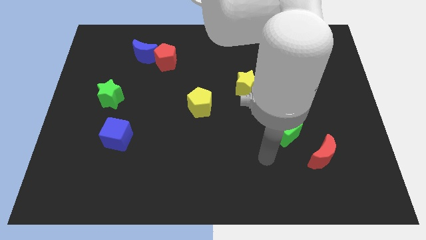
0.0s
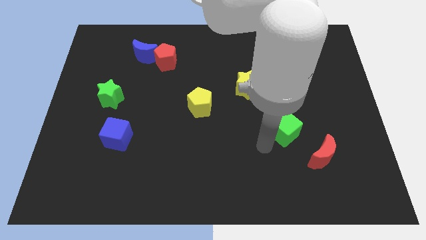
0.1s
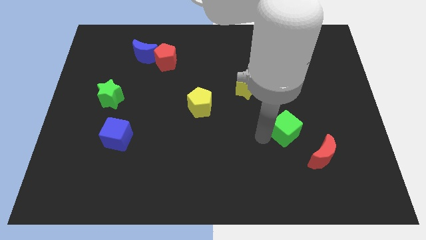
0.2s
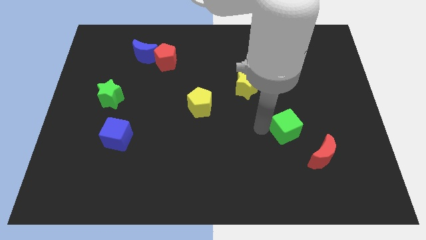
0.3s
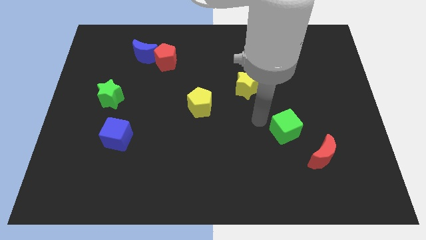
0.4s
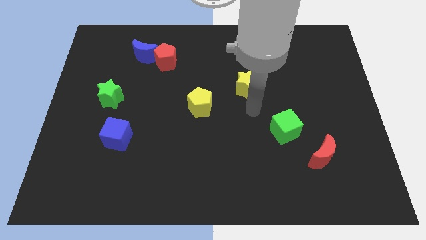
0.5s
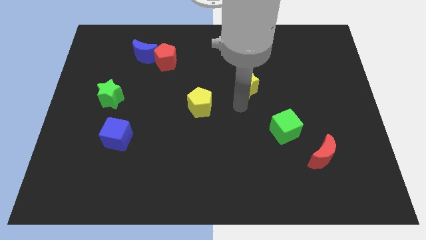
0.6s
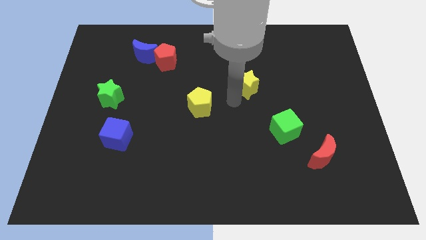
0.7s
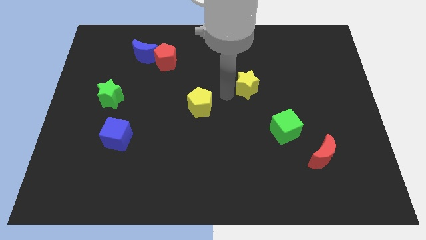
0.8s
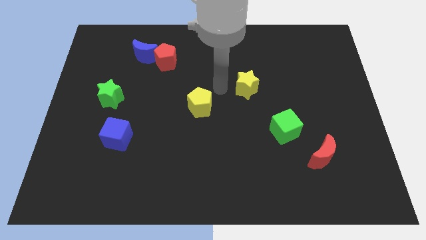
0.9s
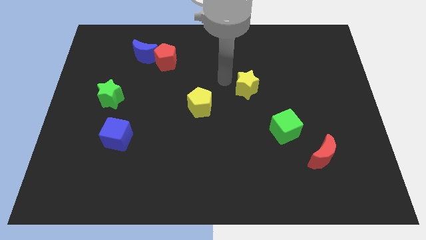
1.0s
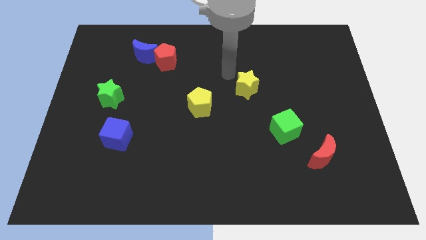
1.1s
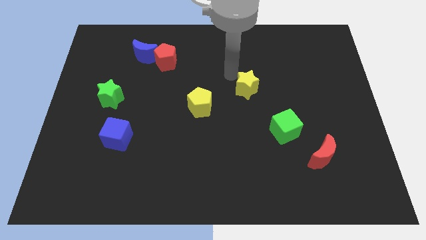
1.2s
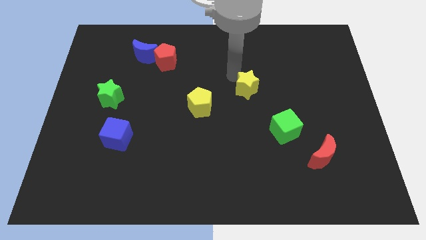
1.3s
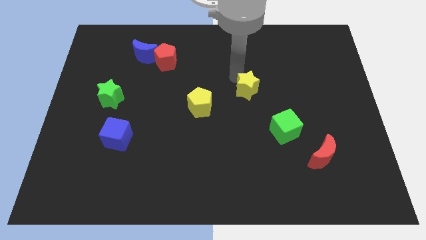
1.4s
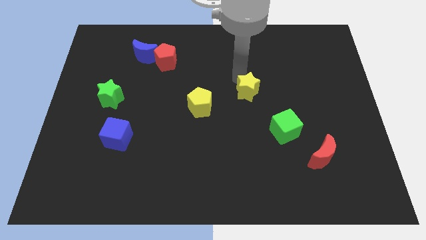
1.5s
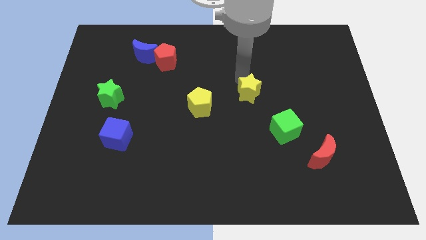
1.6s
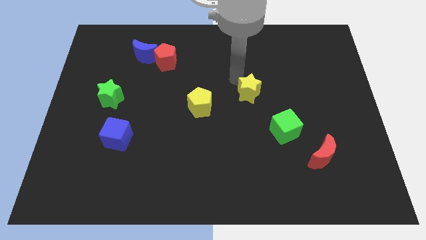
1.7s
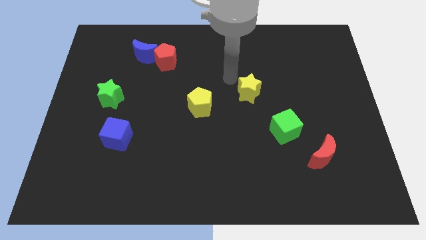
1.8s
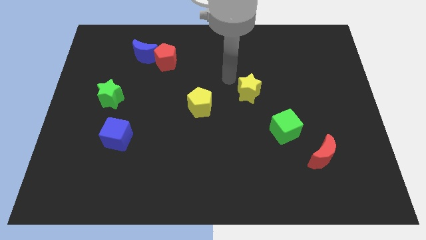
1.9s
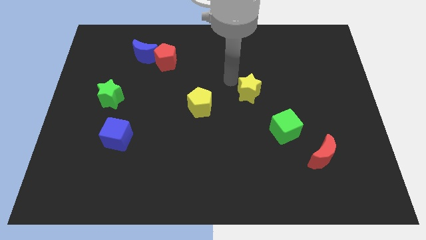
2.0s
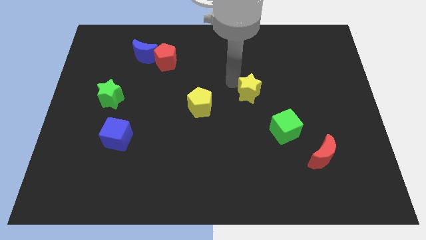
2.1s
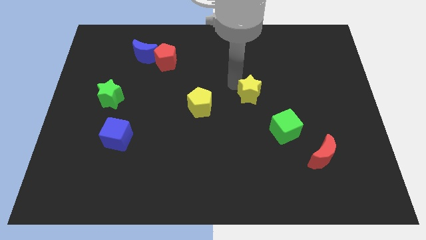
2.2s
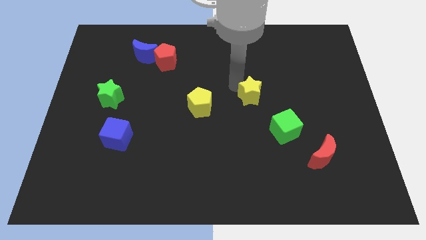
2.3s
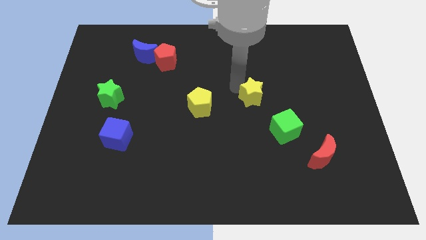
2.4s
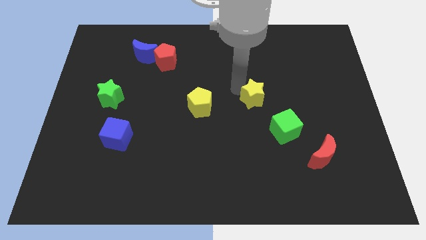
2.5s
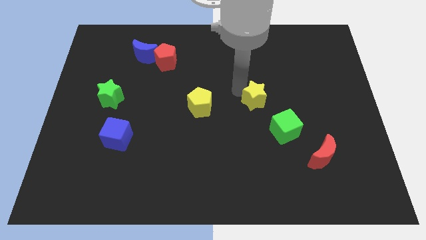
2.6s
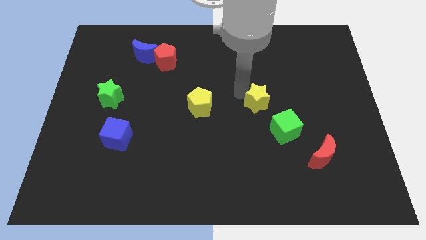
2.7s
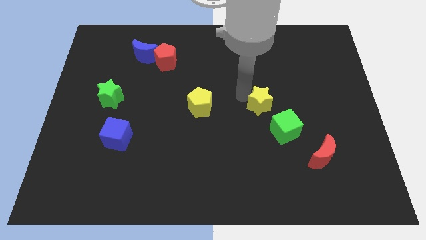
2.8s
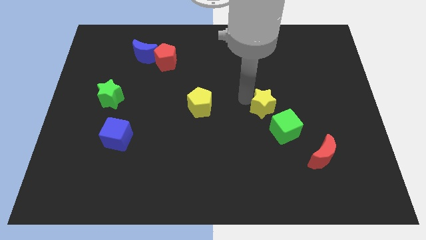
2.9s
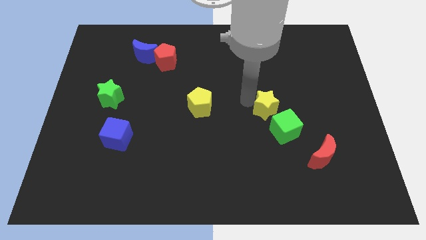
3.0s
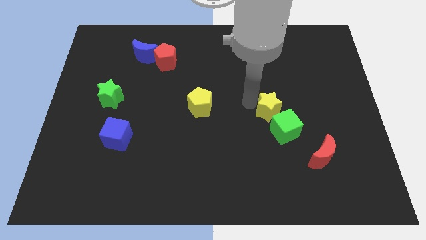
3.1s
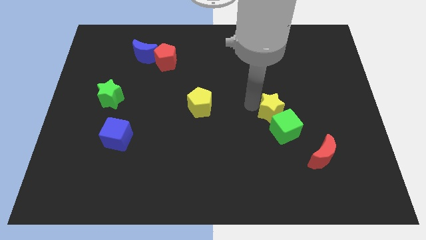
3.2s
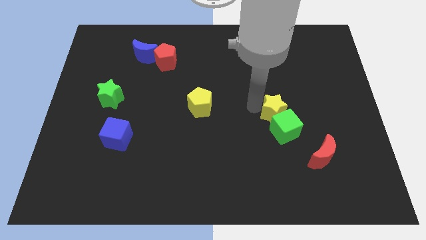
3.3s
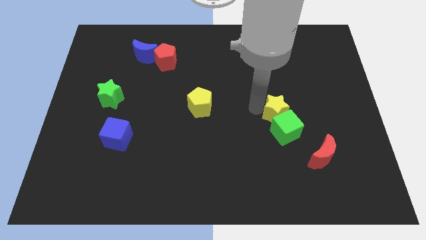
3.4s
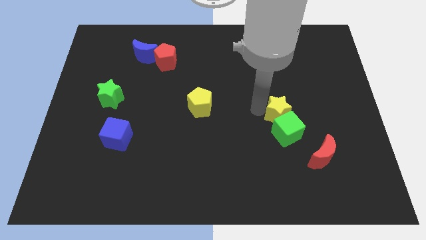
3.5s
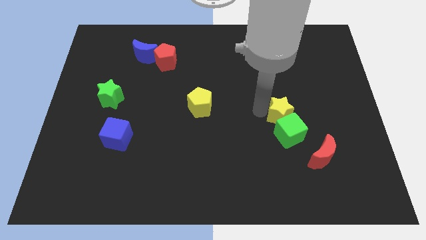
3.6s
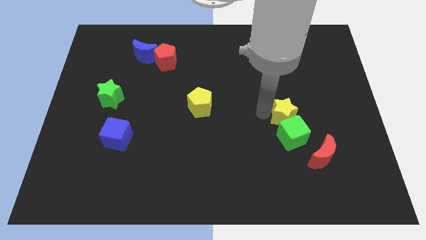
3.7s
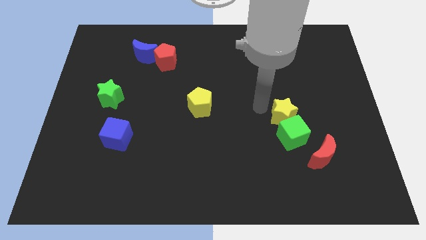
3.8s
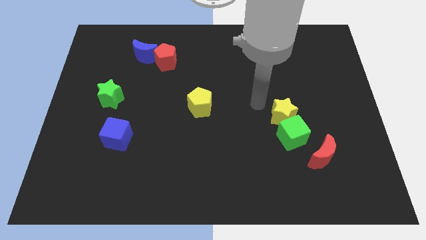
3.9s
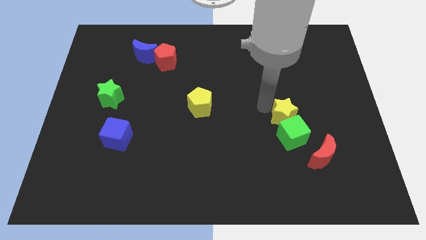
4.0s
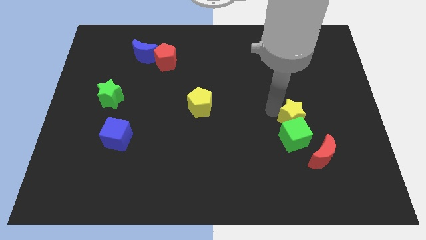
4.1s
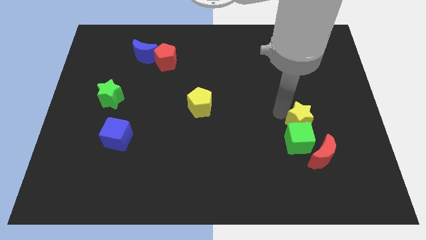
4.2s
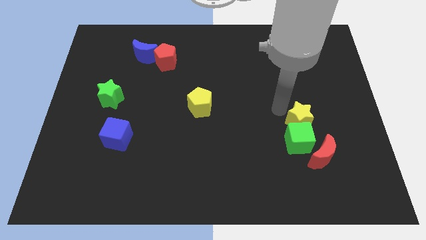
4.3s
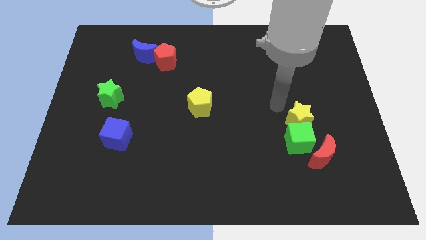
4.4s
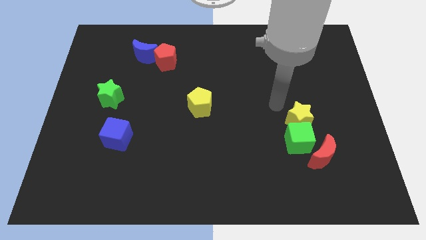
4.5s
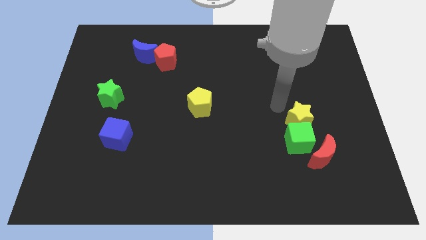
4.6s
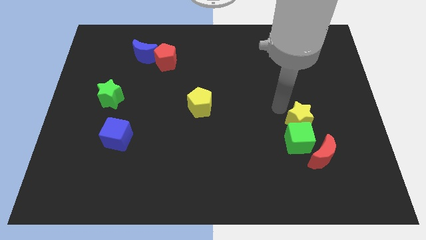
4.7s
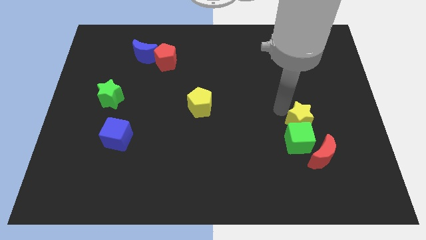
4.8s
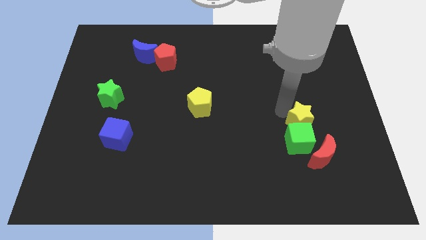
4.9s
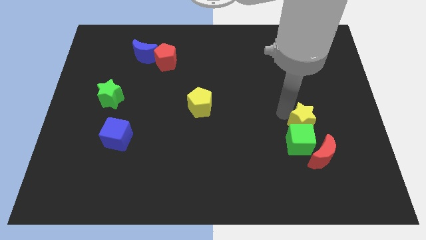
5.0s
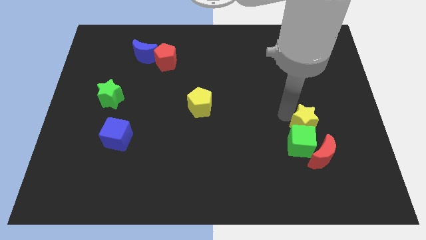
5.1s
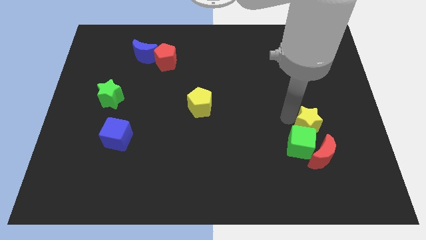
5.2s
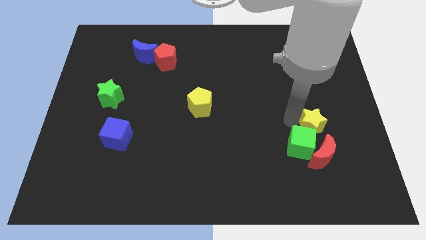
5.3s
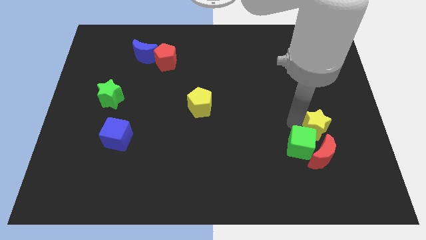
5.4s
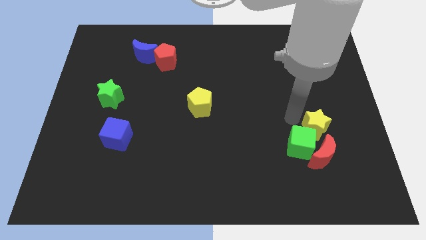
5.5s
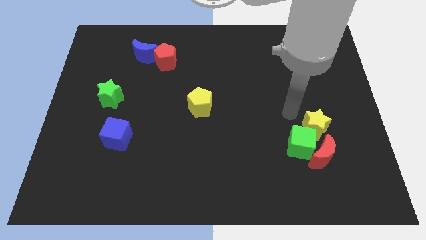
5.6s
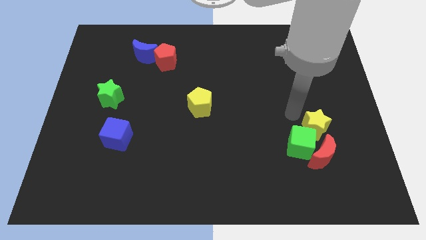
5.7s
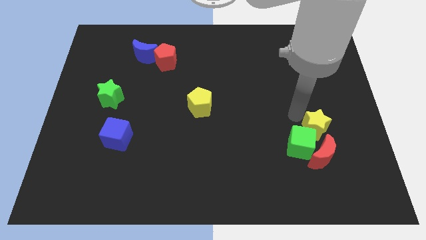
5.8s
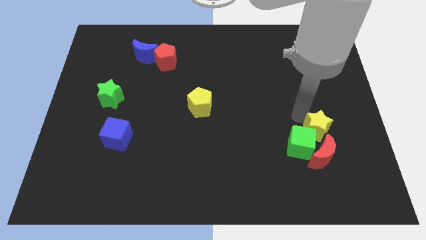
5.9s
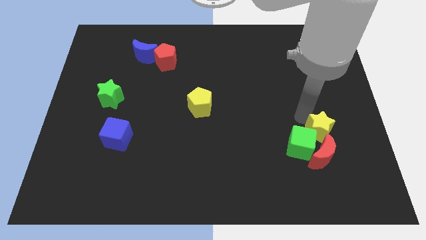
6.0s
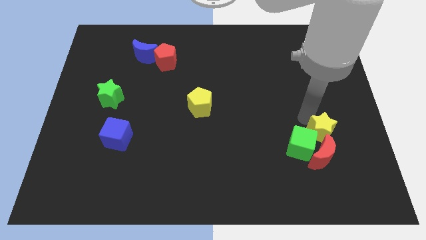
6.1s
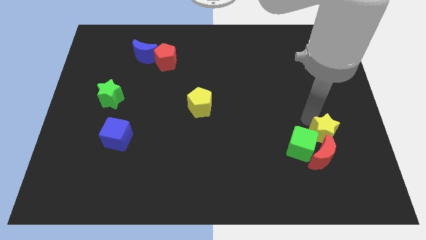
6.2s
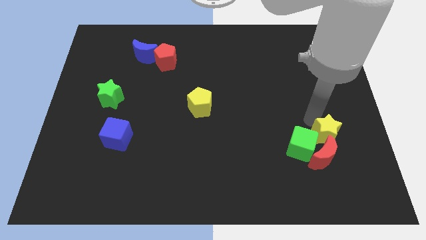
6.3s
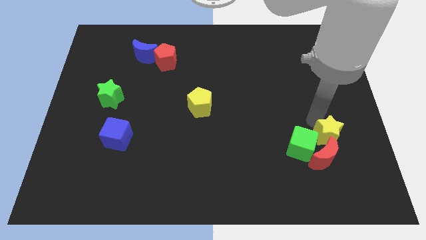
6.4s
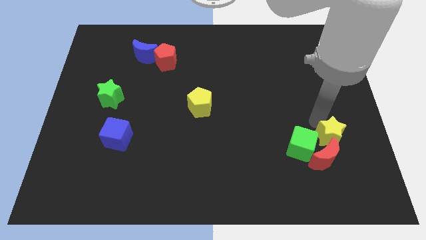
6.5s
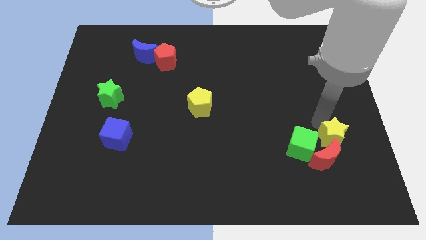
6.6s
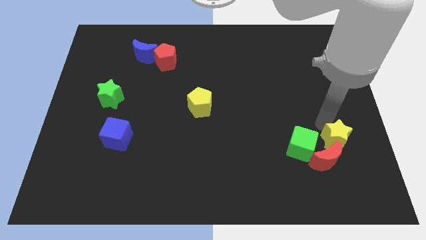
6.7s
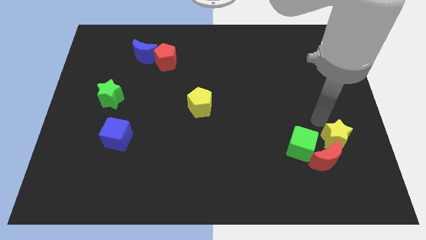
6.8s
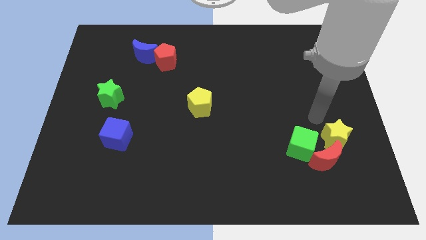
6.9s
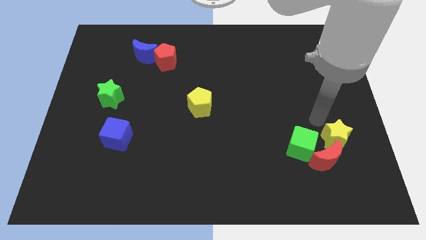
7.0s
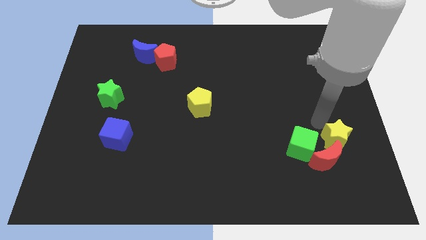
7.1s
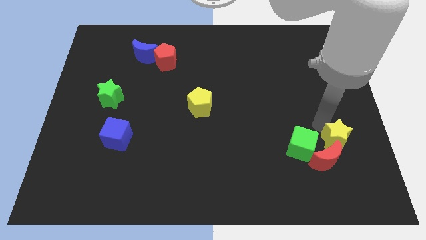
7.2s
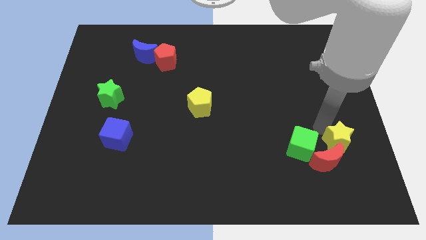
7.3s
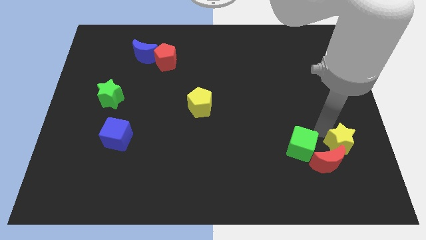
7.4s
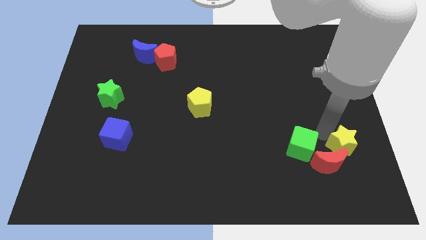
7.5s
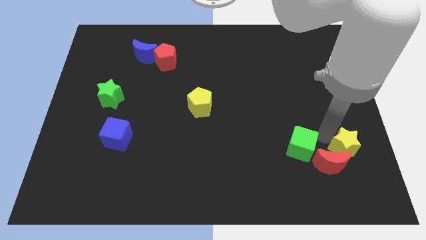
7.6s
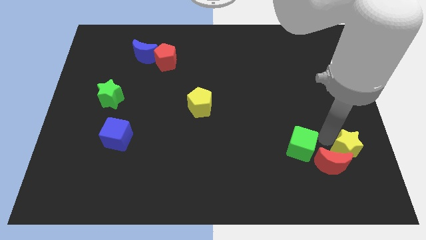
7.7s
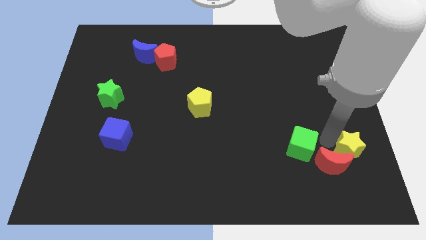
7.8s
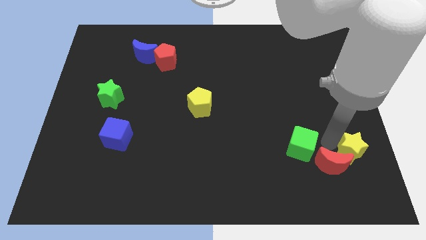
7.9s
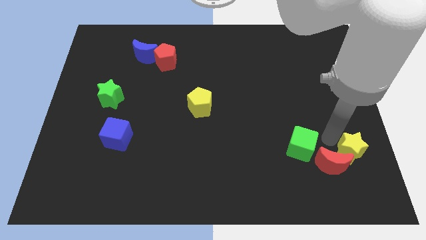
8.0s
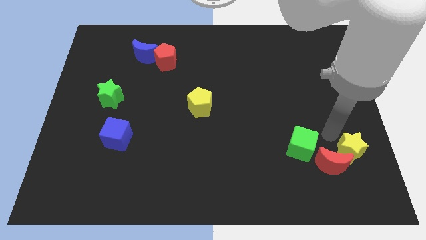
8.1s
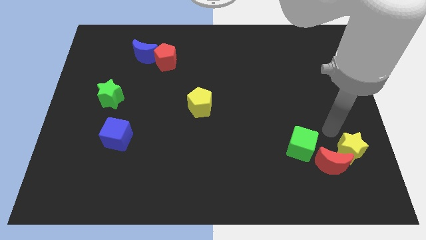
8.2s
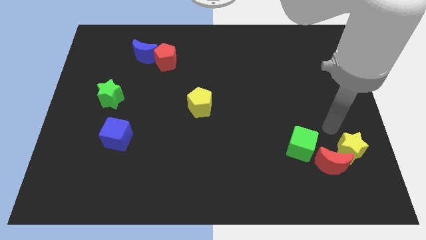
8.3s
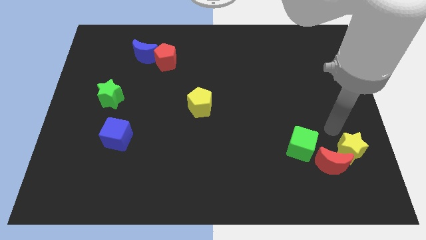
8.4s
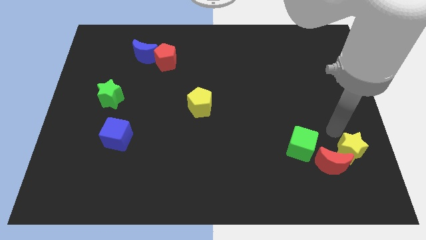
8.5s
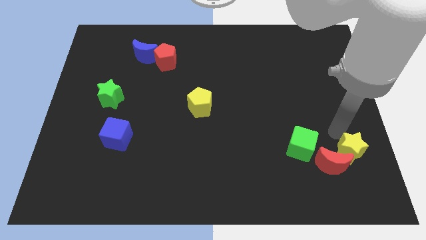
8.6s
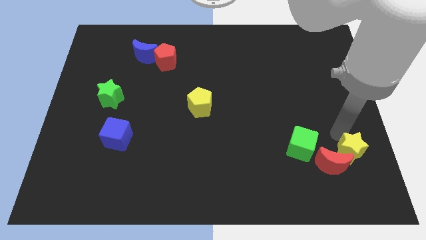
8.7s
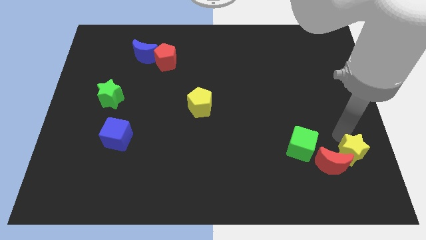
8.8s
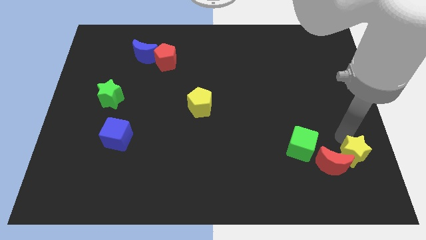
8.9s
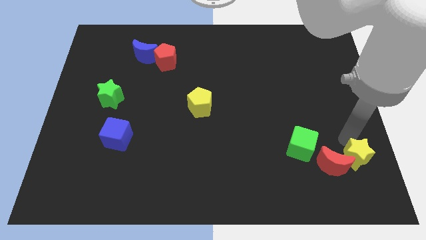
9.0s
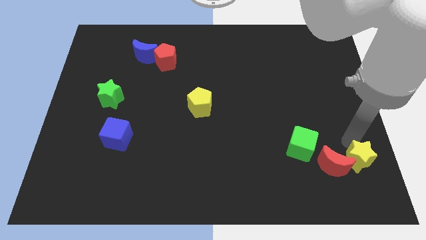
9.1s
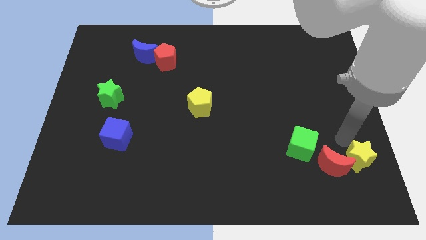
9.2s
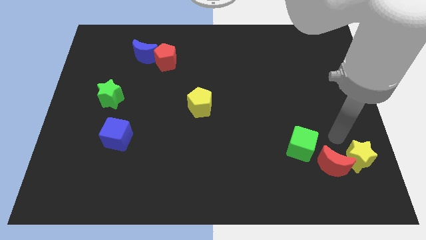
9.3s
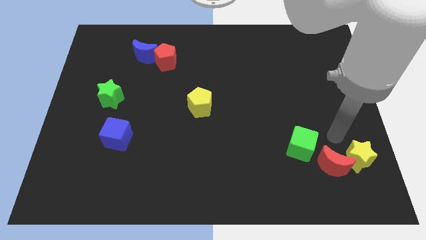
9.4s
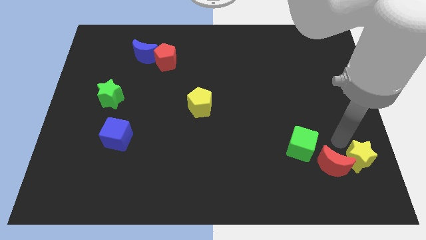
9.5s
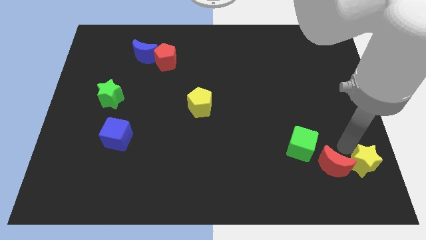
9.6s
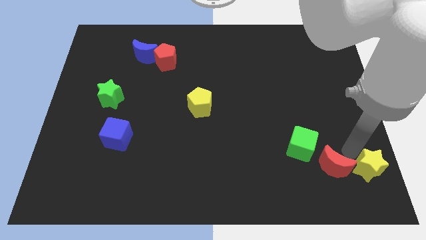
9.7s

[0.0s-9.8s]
move the yellow star to the lower right corner
